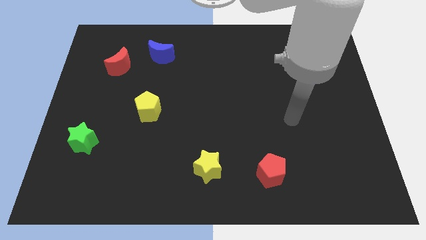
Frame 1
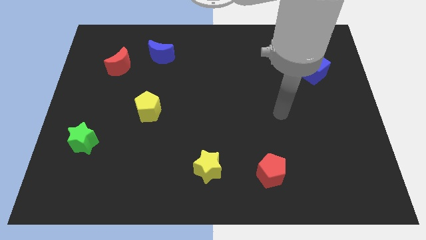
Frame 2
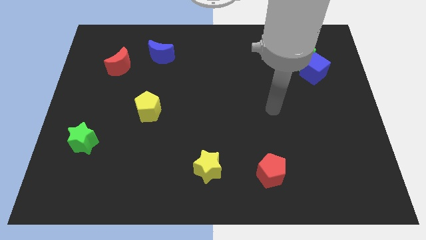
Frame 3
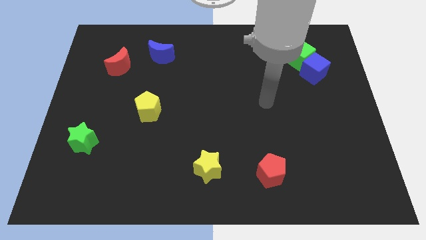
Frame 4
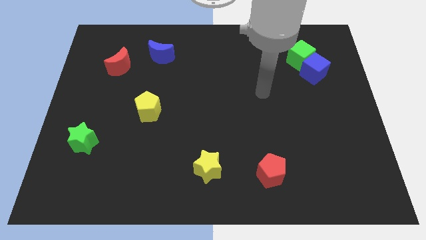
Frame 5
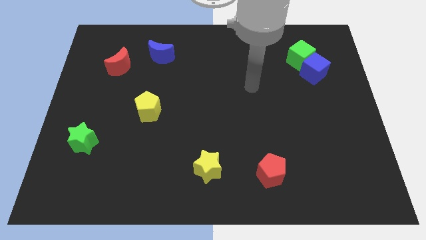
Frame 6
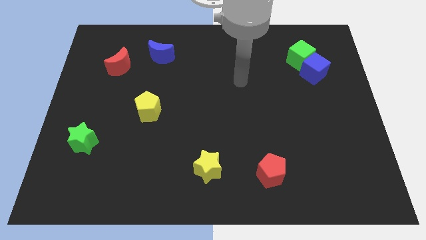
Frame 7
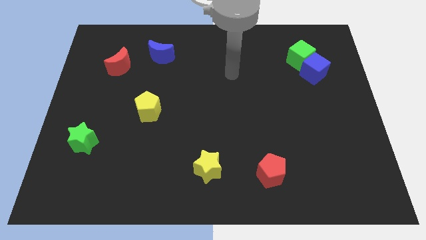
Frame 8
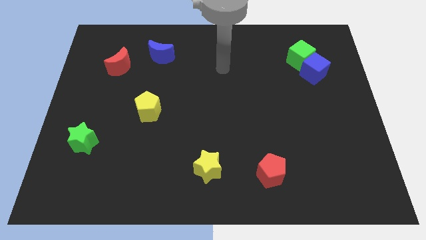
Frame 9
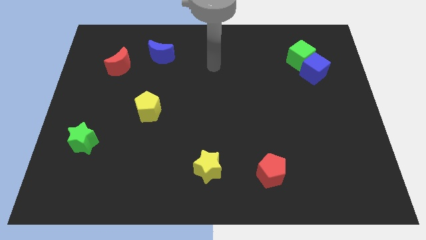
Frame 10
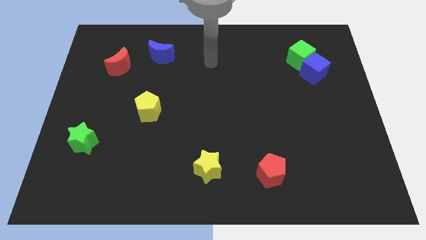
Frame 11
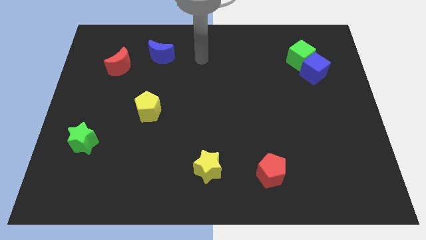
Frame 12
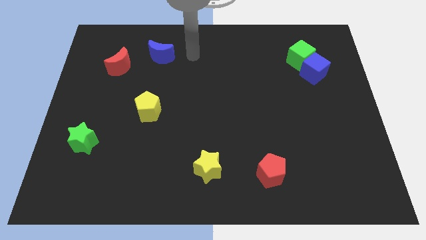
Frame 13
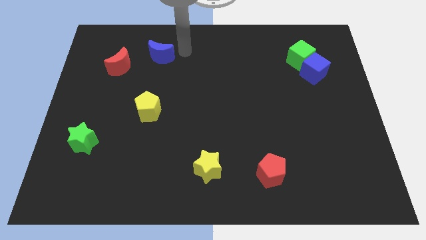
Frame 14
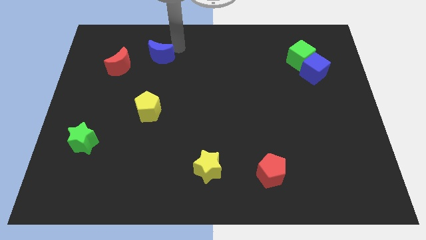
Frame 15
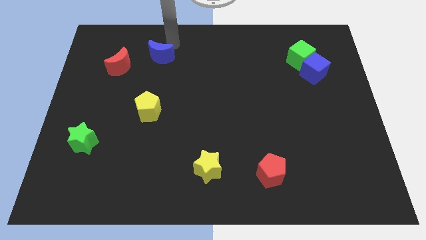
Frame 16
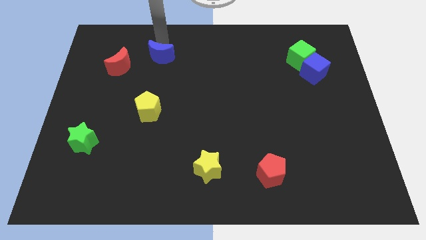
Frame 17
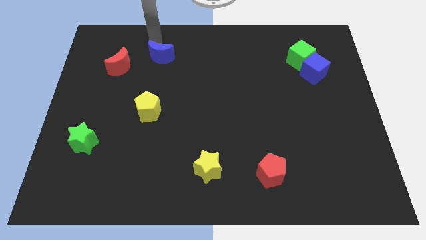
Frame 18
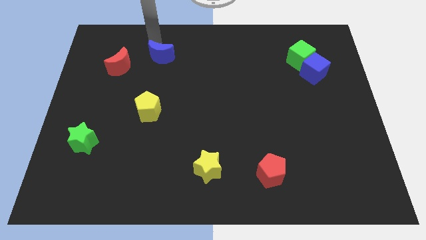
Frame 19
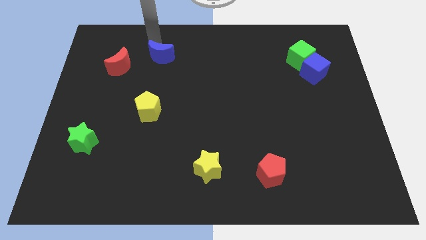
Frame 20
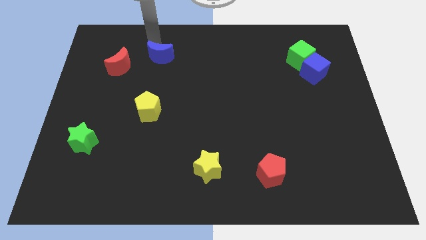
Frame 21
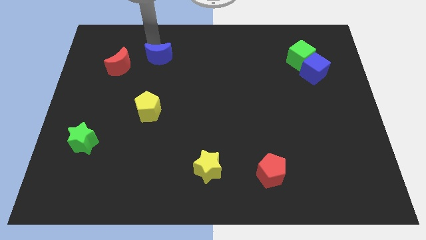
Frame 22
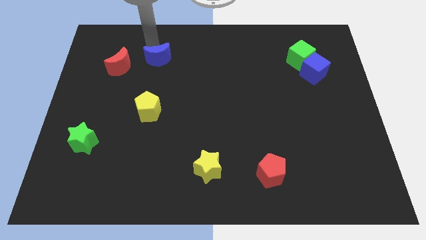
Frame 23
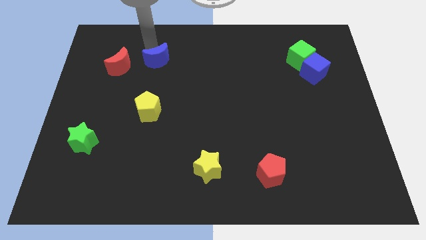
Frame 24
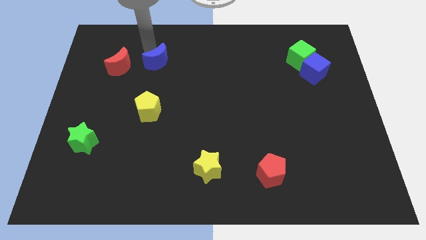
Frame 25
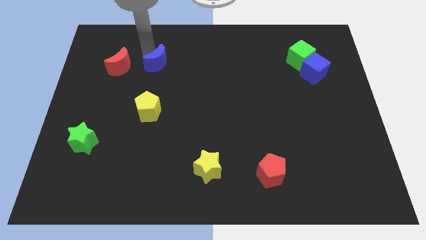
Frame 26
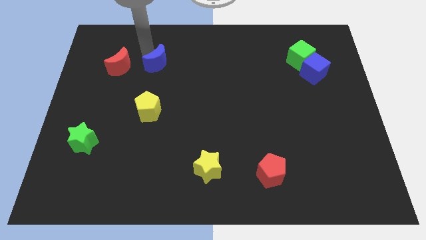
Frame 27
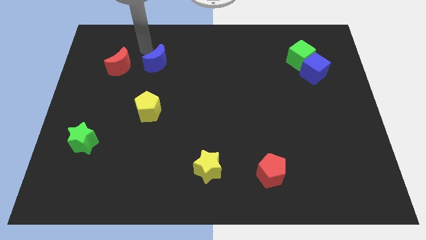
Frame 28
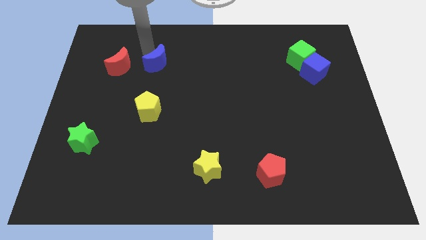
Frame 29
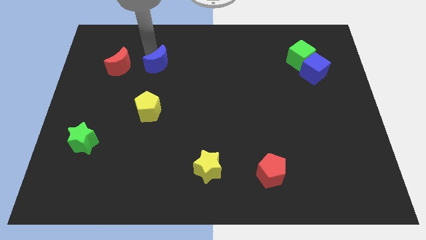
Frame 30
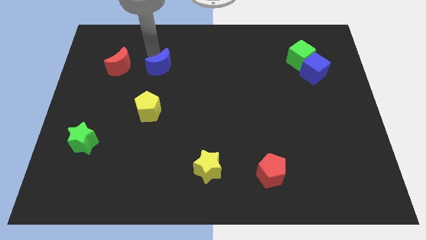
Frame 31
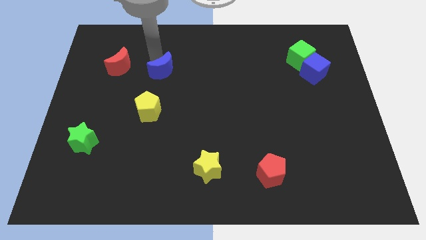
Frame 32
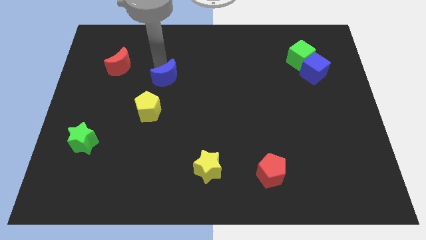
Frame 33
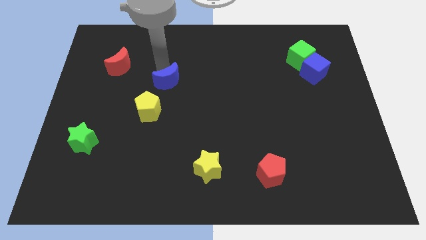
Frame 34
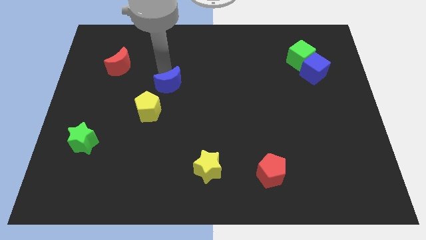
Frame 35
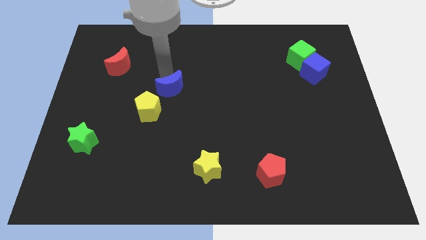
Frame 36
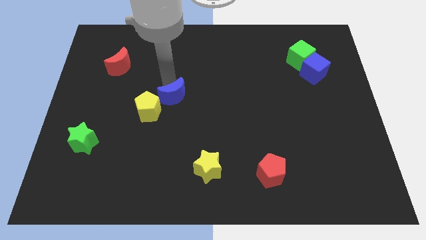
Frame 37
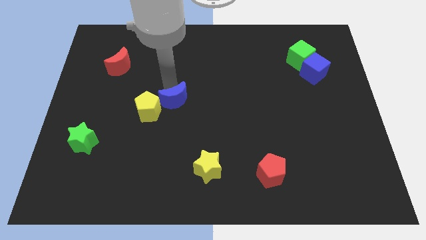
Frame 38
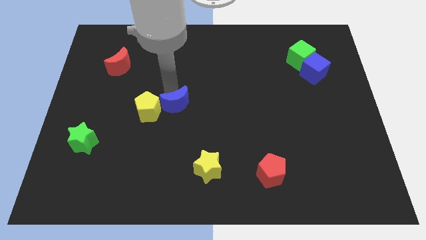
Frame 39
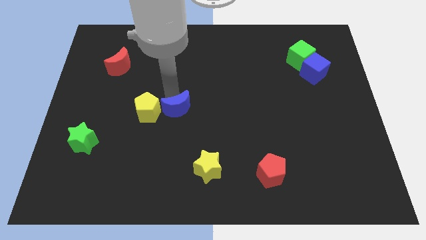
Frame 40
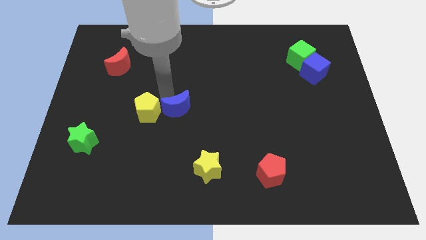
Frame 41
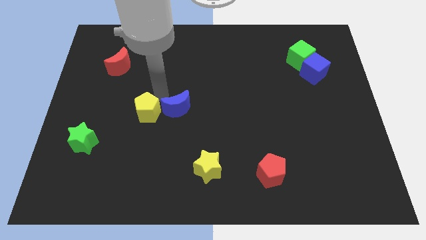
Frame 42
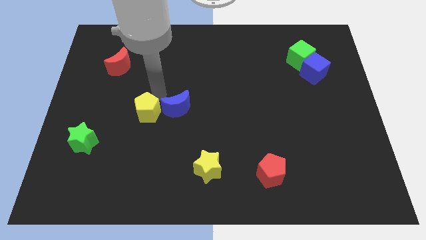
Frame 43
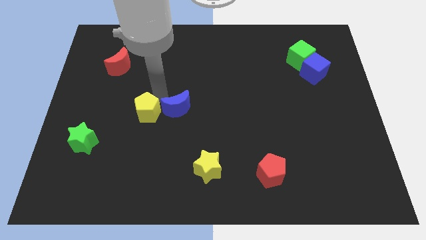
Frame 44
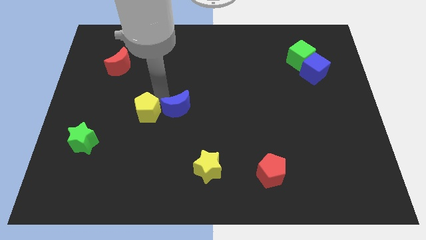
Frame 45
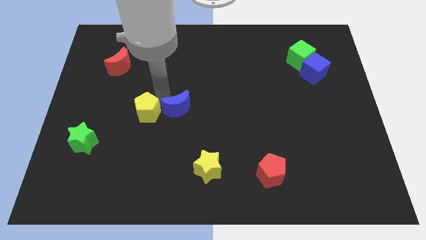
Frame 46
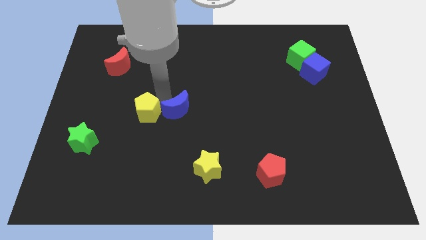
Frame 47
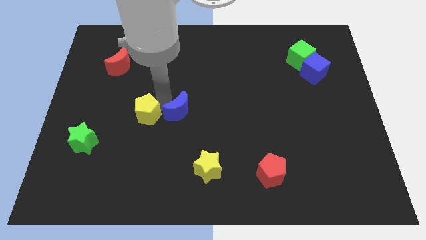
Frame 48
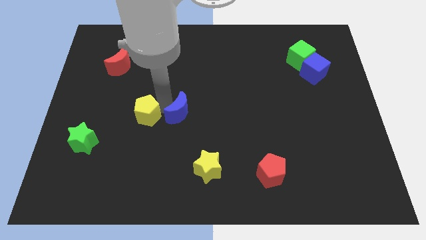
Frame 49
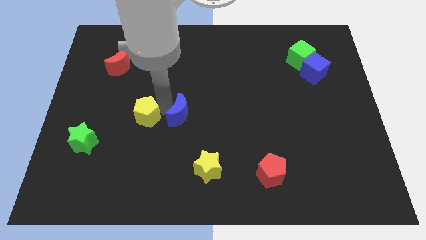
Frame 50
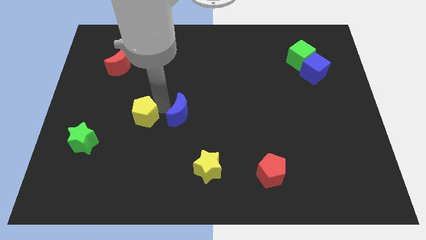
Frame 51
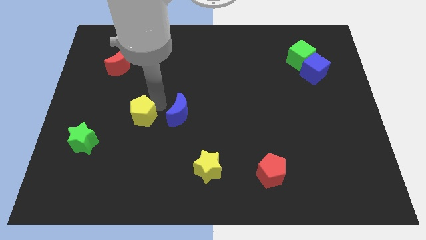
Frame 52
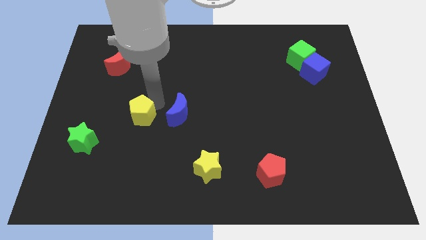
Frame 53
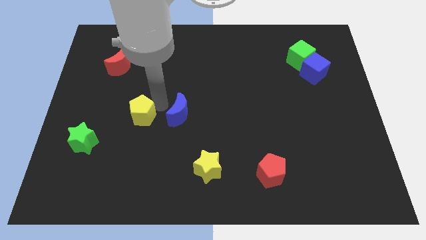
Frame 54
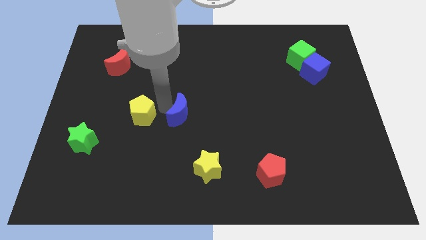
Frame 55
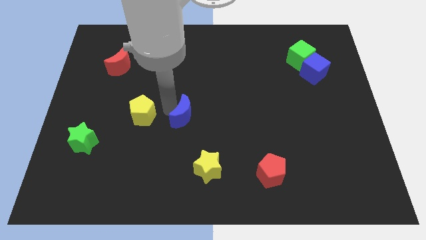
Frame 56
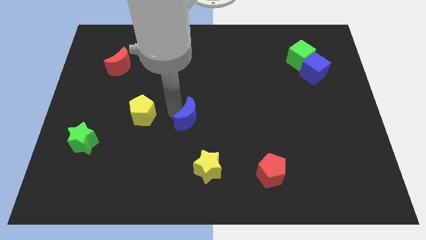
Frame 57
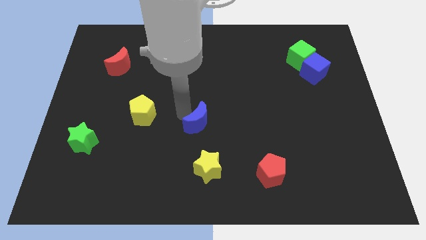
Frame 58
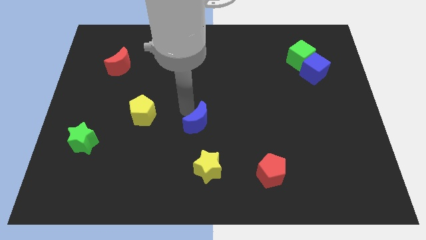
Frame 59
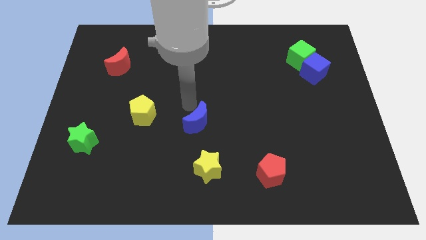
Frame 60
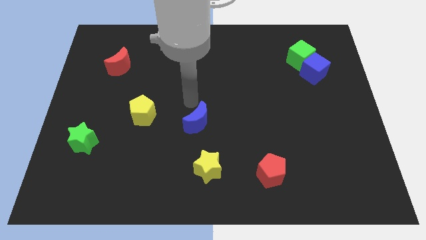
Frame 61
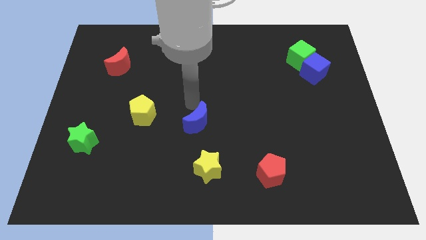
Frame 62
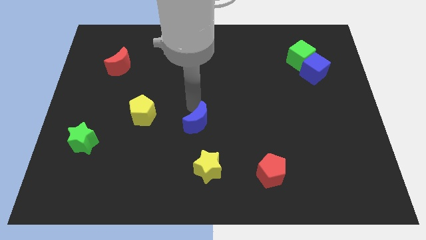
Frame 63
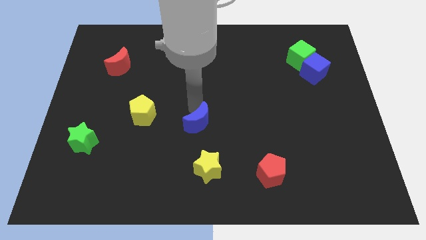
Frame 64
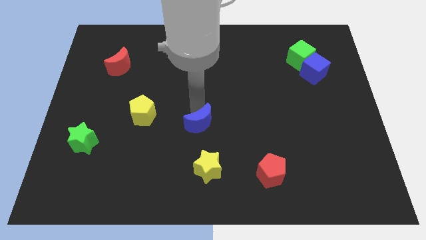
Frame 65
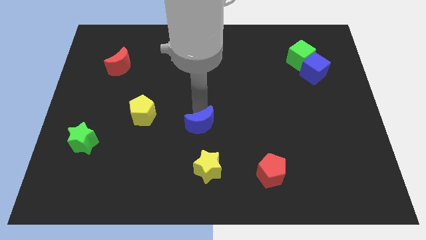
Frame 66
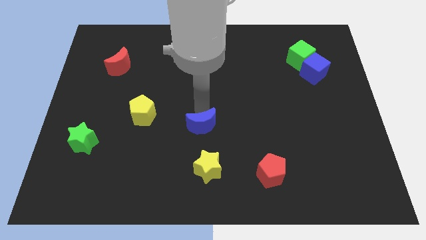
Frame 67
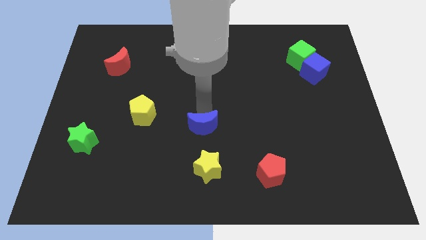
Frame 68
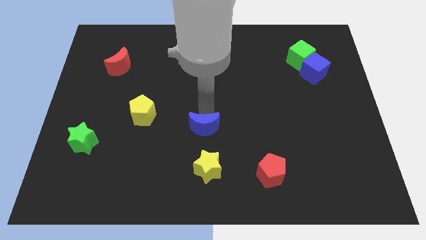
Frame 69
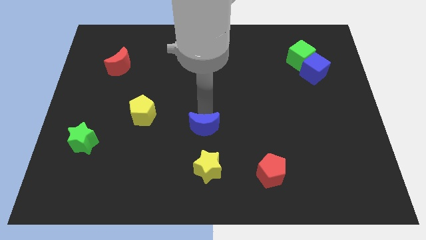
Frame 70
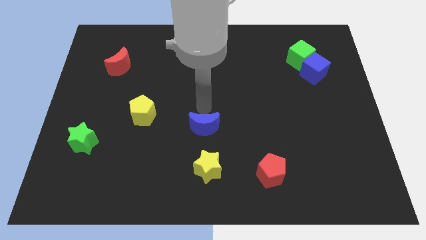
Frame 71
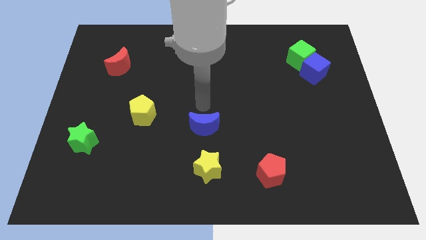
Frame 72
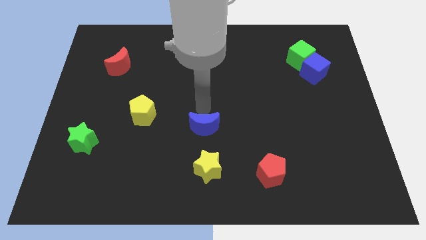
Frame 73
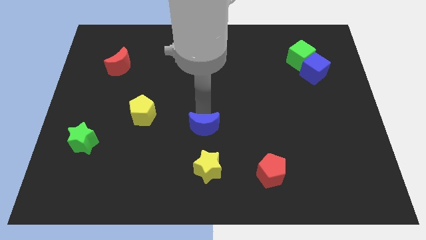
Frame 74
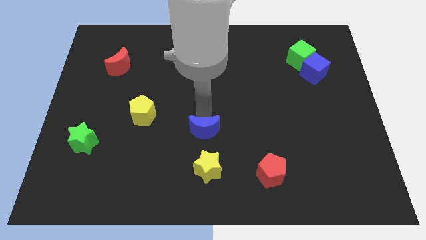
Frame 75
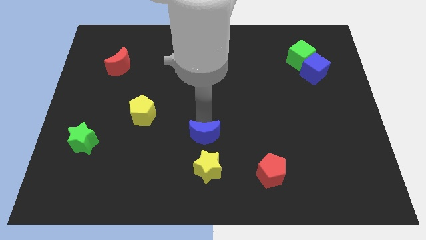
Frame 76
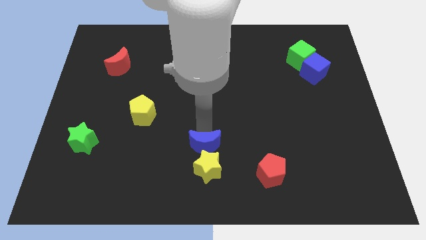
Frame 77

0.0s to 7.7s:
move the blue moon close to the yellow star
